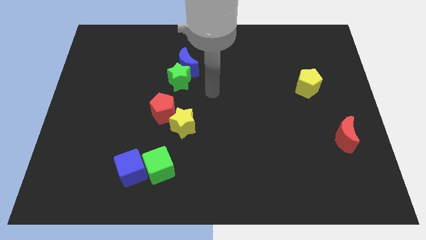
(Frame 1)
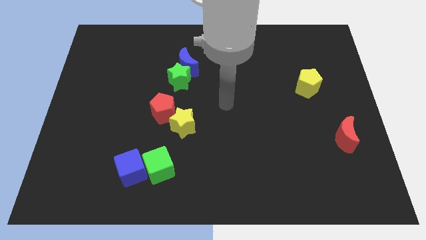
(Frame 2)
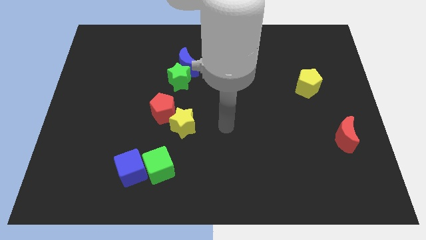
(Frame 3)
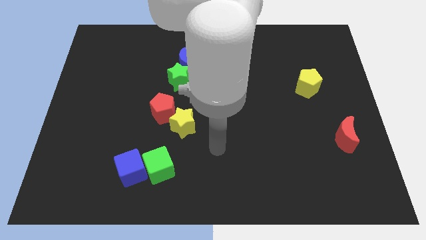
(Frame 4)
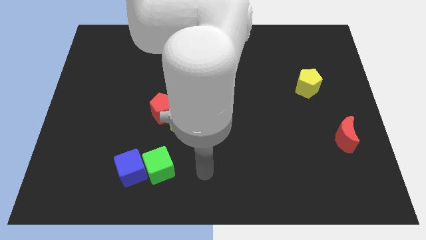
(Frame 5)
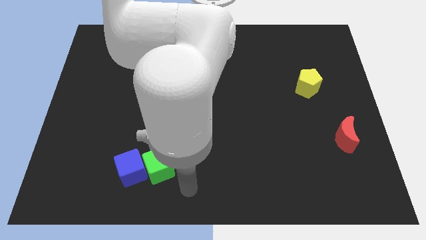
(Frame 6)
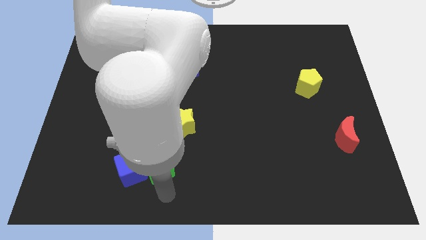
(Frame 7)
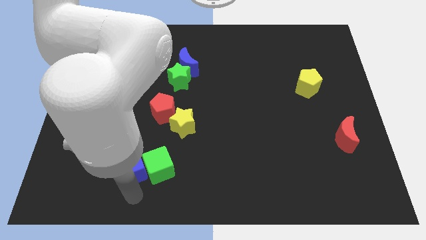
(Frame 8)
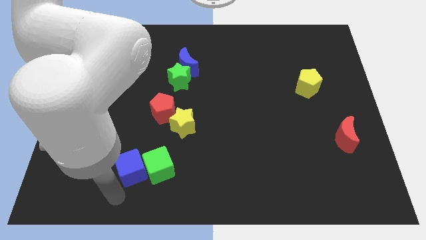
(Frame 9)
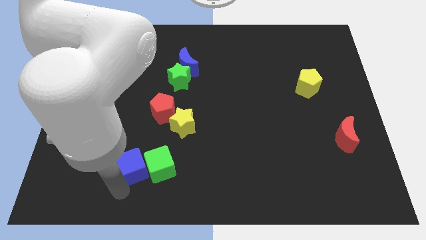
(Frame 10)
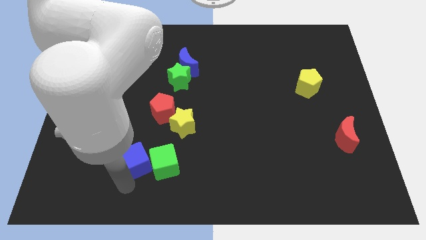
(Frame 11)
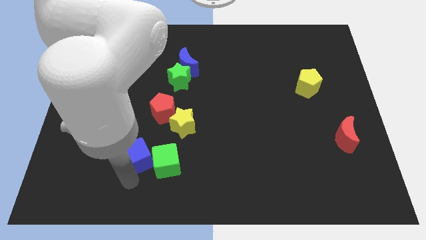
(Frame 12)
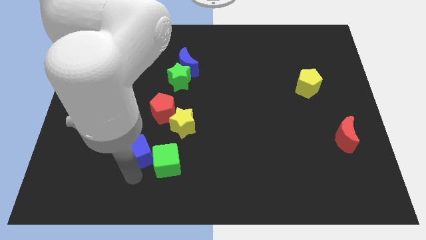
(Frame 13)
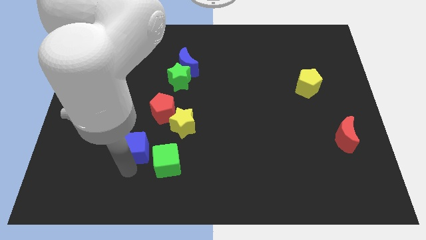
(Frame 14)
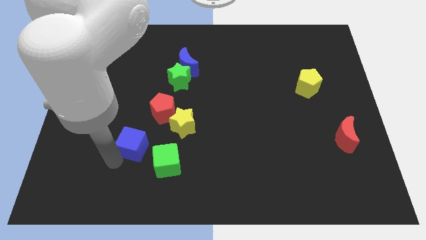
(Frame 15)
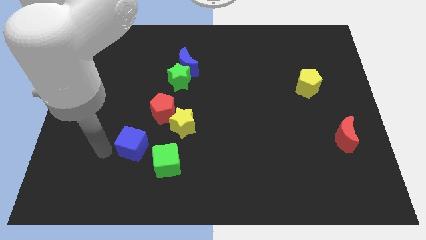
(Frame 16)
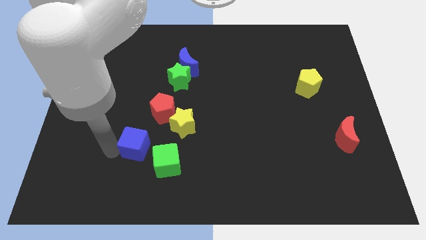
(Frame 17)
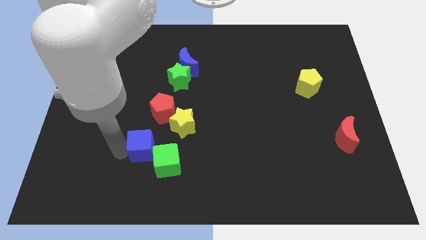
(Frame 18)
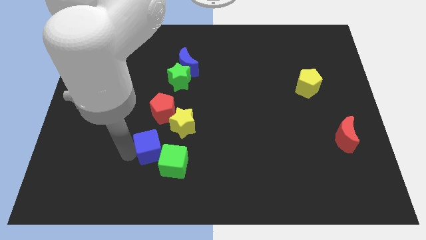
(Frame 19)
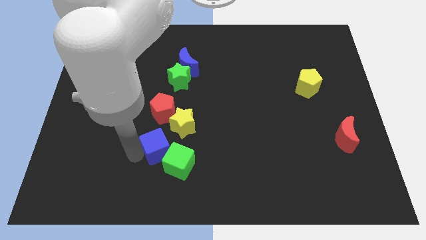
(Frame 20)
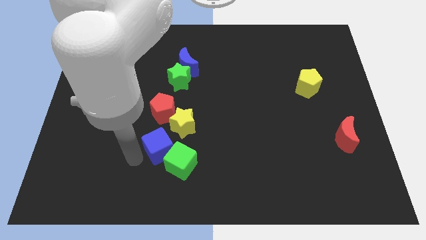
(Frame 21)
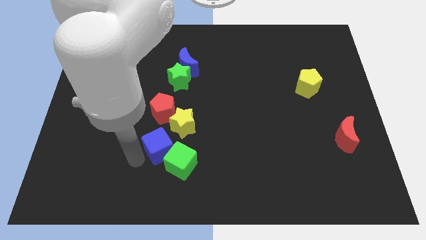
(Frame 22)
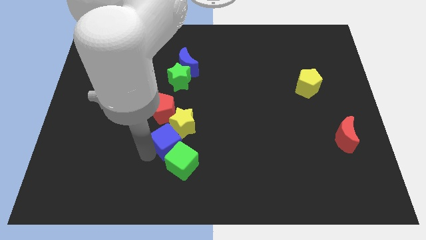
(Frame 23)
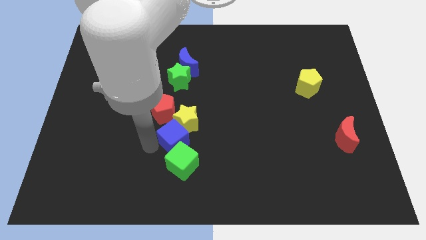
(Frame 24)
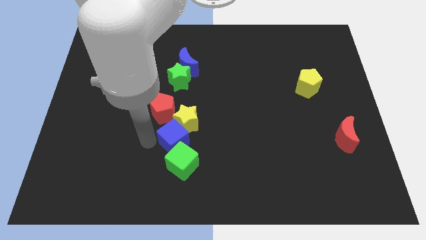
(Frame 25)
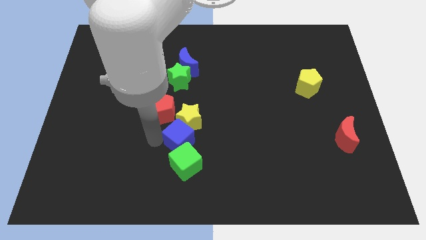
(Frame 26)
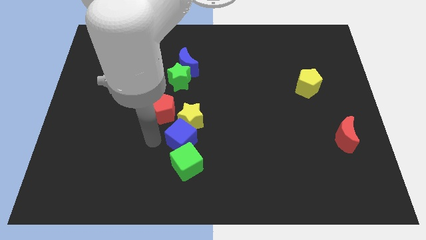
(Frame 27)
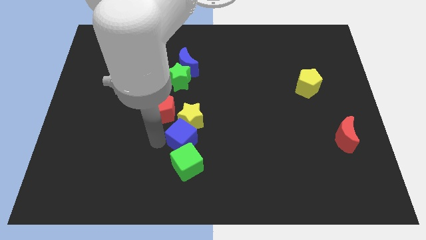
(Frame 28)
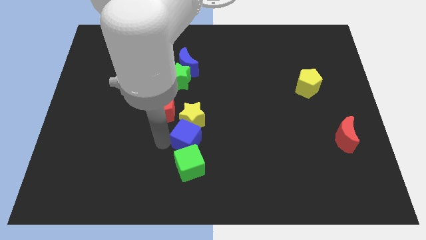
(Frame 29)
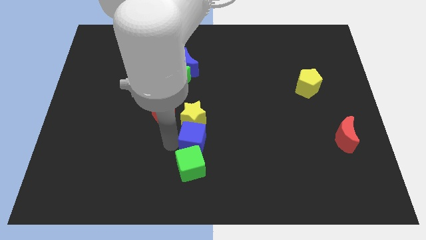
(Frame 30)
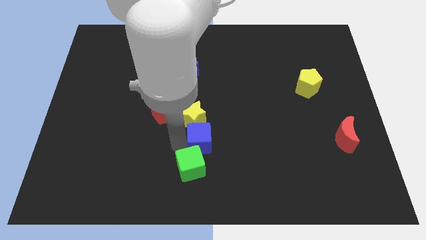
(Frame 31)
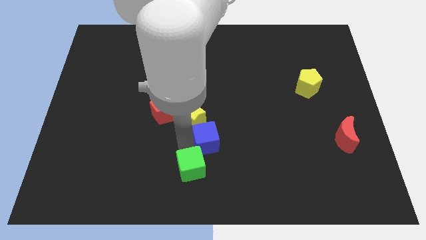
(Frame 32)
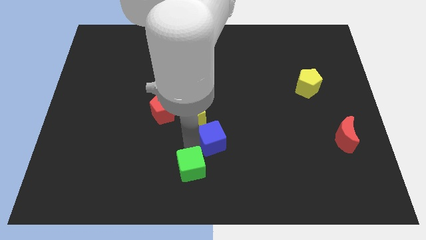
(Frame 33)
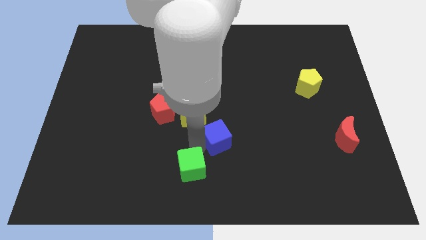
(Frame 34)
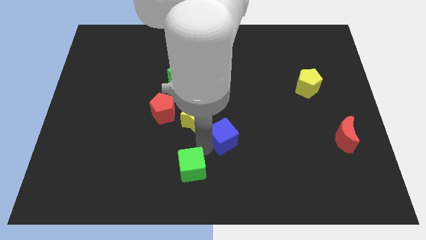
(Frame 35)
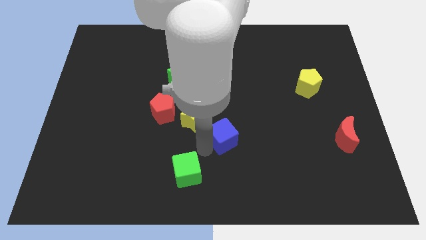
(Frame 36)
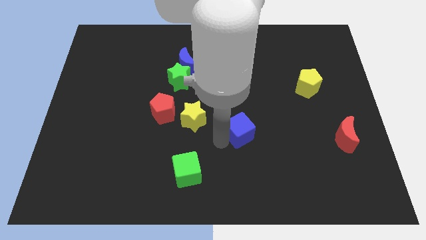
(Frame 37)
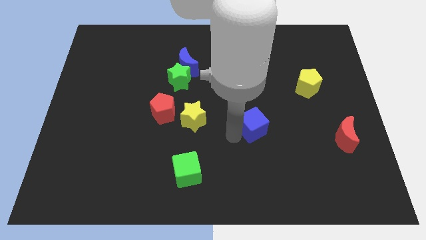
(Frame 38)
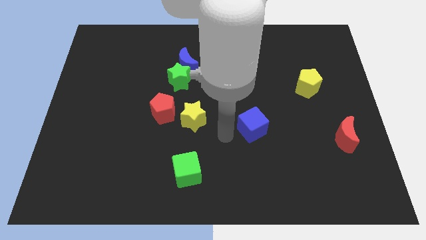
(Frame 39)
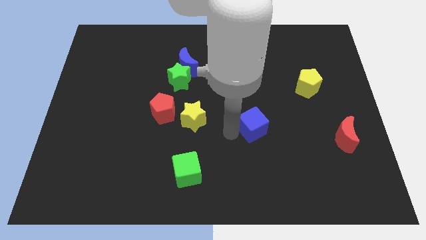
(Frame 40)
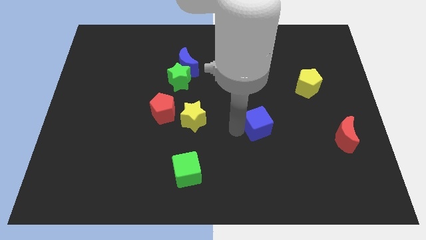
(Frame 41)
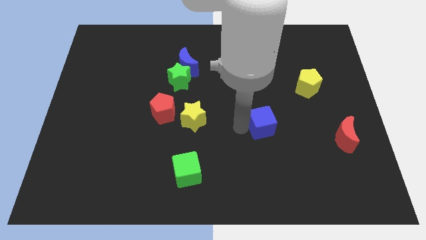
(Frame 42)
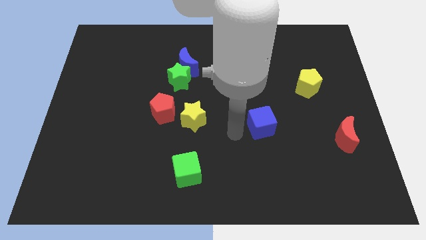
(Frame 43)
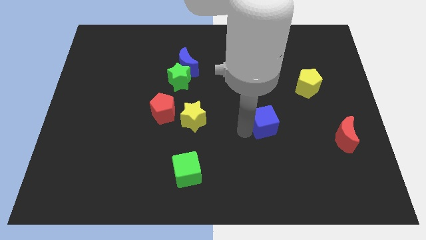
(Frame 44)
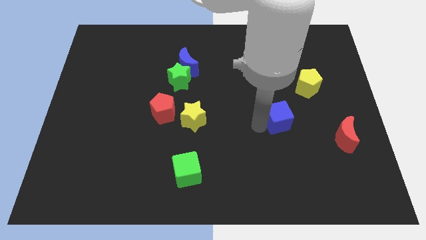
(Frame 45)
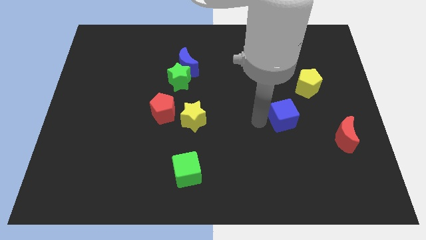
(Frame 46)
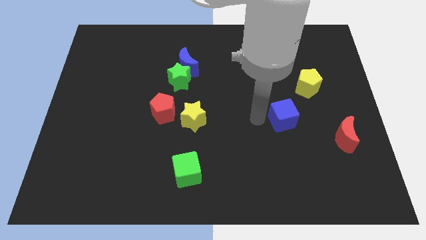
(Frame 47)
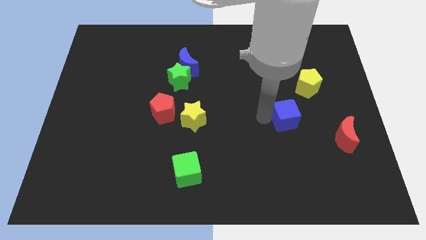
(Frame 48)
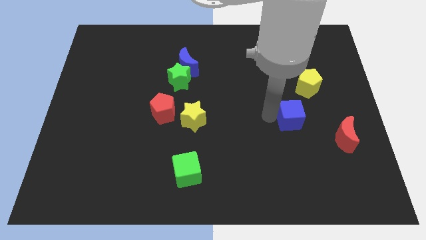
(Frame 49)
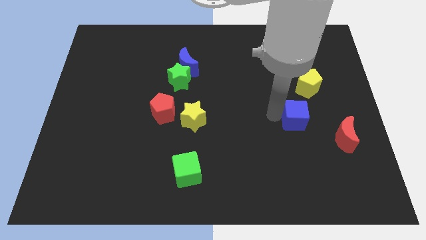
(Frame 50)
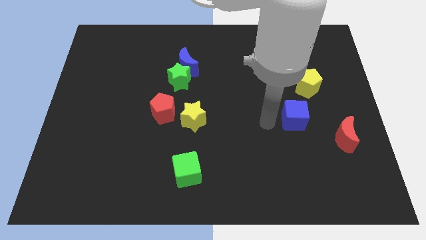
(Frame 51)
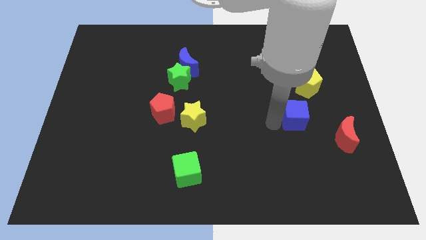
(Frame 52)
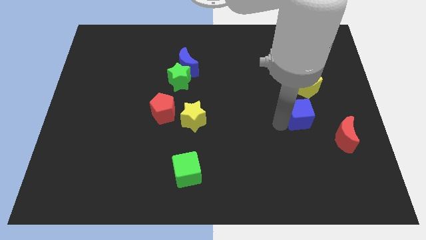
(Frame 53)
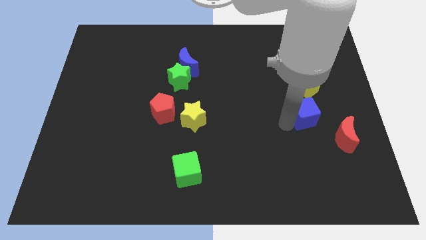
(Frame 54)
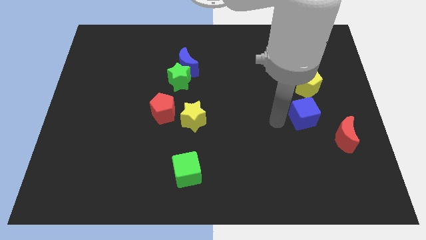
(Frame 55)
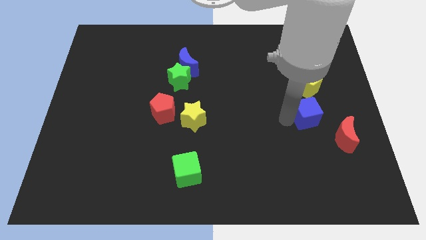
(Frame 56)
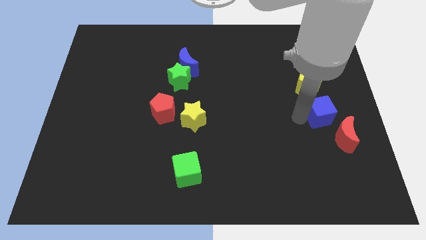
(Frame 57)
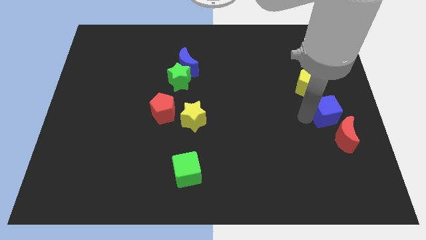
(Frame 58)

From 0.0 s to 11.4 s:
push the blue cube to the center right

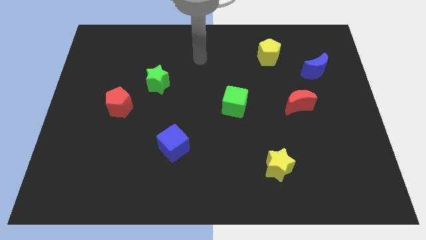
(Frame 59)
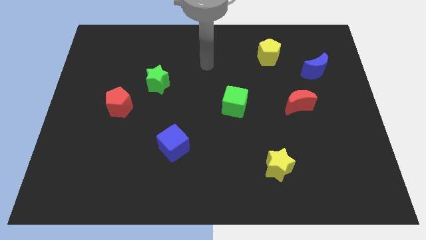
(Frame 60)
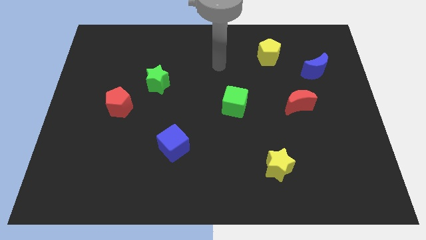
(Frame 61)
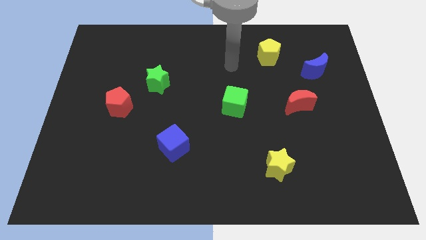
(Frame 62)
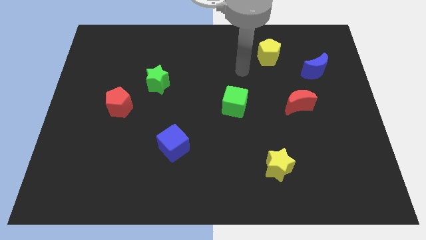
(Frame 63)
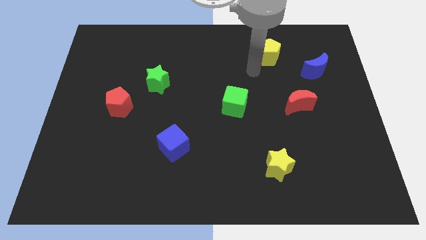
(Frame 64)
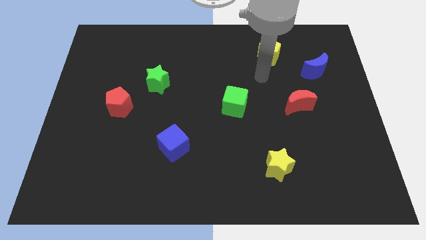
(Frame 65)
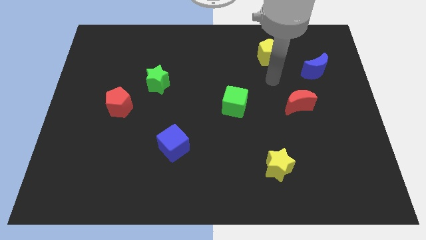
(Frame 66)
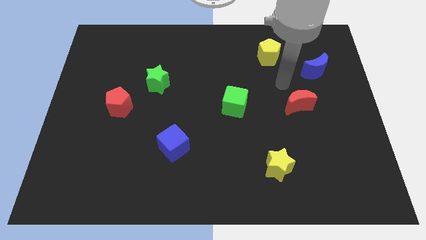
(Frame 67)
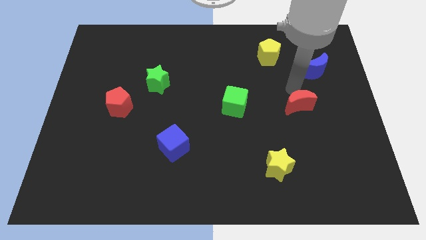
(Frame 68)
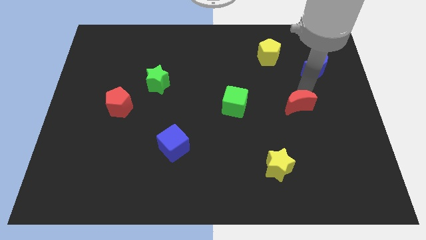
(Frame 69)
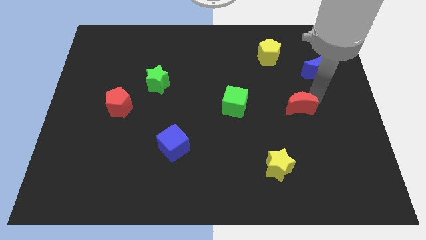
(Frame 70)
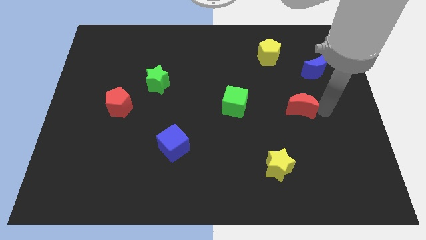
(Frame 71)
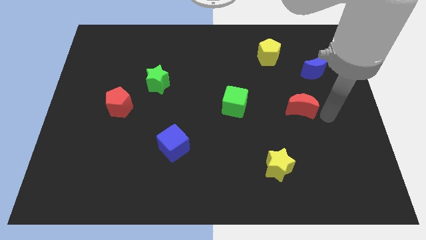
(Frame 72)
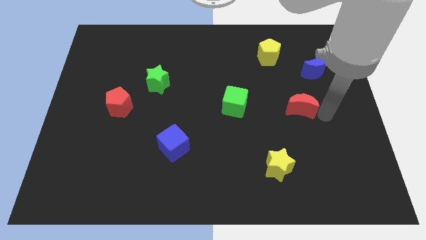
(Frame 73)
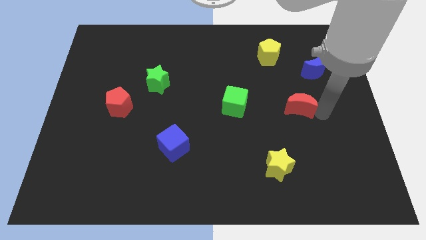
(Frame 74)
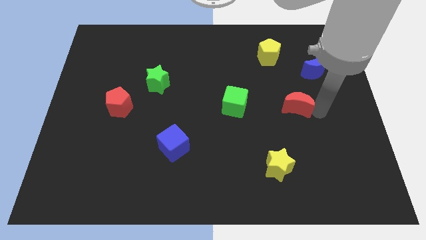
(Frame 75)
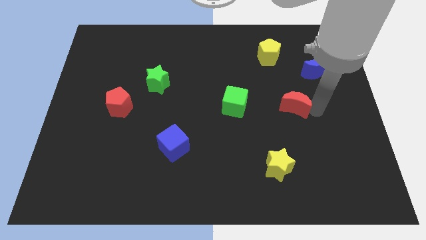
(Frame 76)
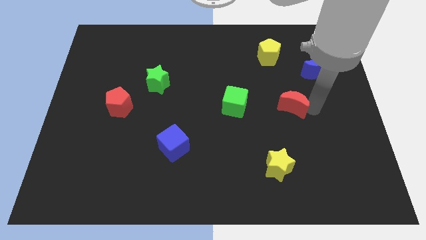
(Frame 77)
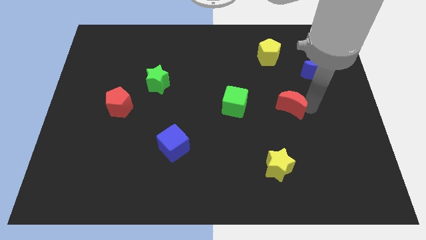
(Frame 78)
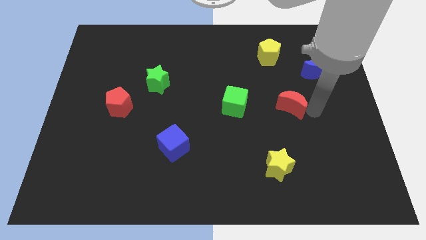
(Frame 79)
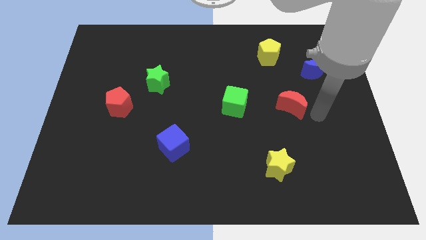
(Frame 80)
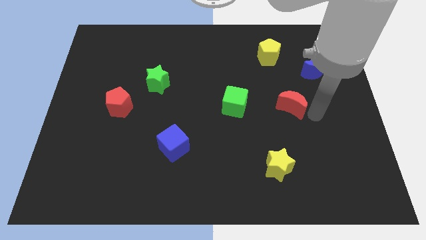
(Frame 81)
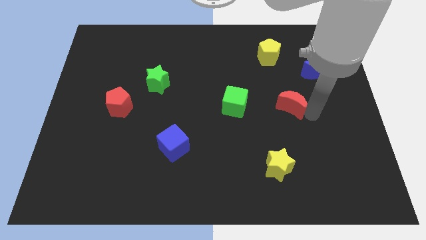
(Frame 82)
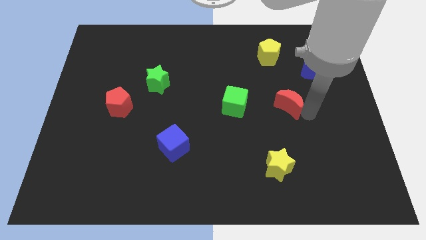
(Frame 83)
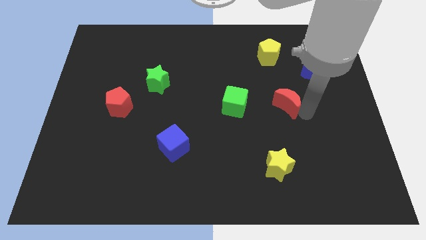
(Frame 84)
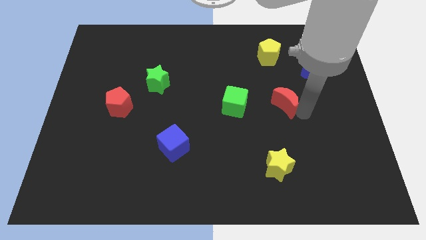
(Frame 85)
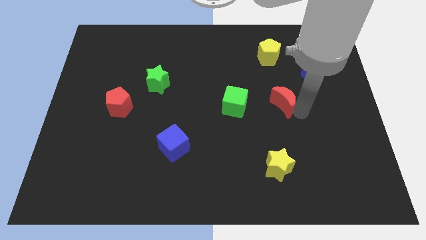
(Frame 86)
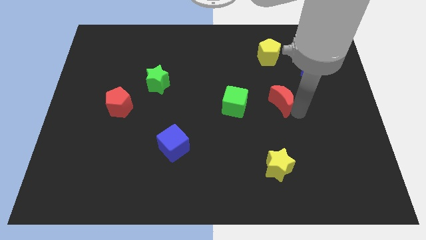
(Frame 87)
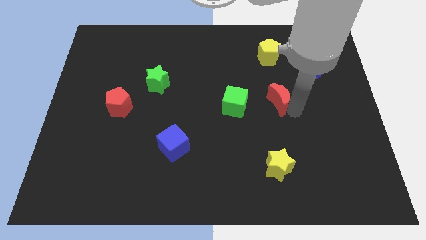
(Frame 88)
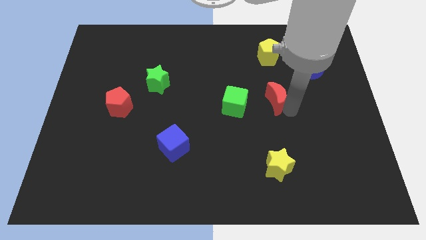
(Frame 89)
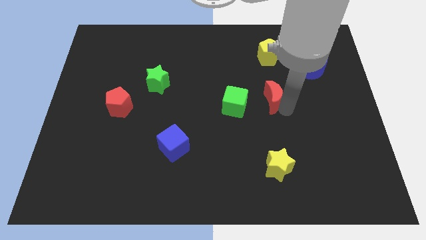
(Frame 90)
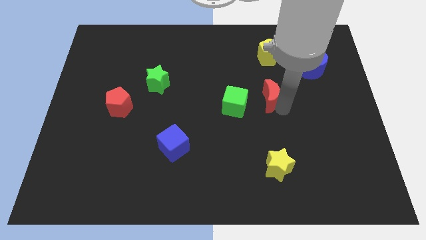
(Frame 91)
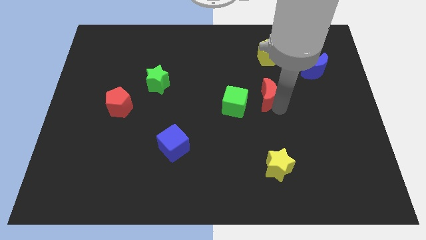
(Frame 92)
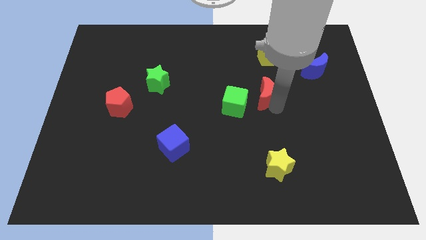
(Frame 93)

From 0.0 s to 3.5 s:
slide the red moon to the center of the board
